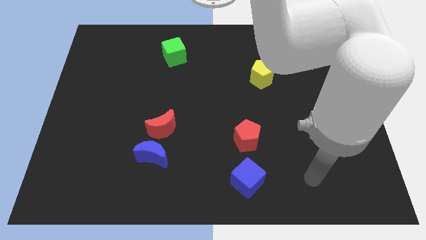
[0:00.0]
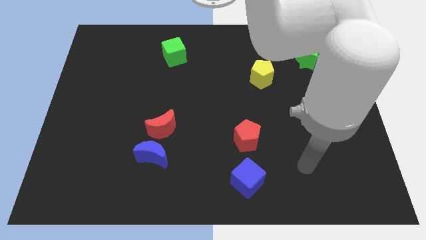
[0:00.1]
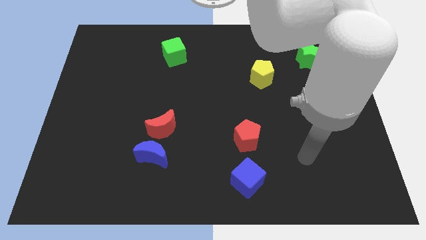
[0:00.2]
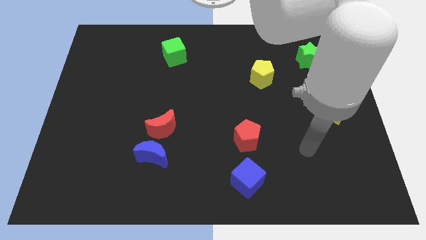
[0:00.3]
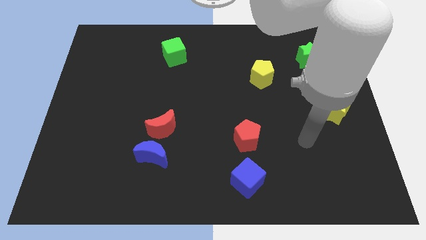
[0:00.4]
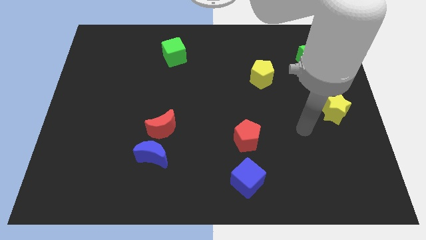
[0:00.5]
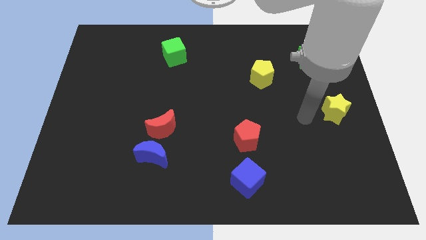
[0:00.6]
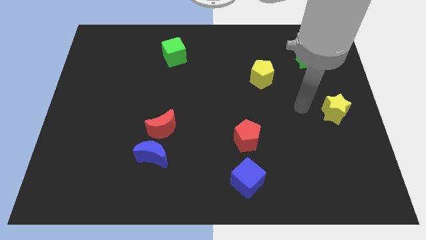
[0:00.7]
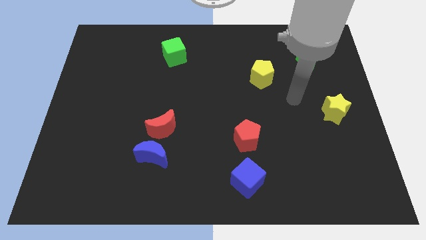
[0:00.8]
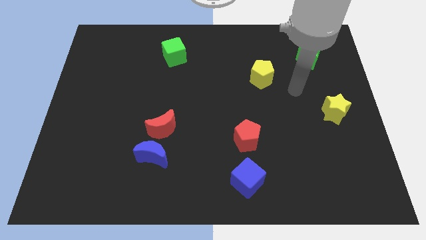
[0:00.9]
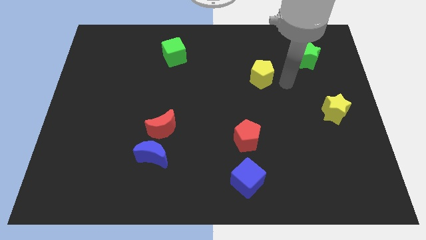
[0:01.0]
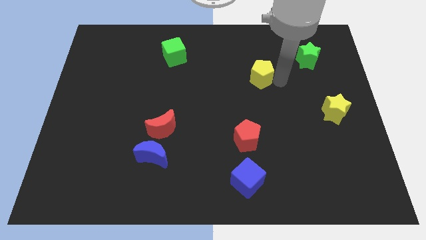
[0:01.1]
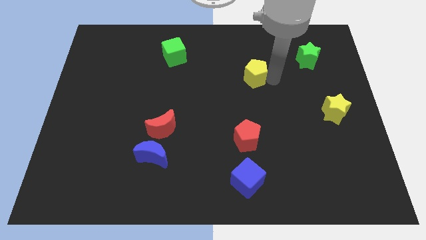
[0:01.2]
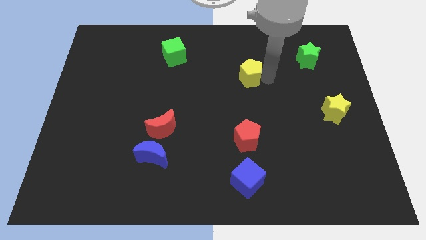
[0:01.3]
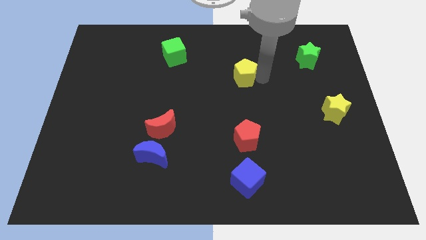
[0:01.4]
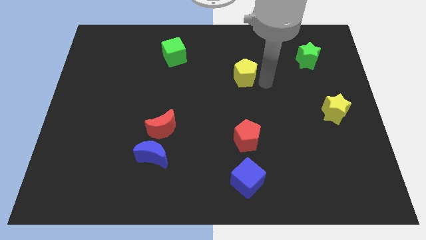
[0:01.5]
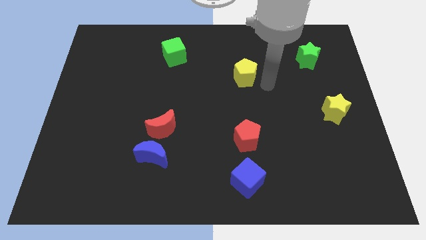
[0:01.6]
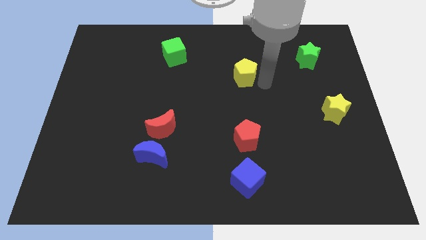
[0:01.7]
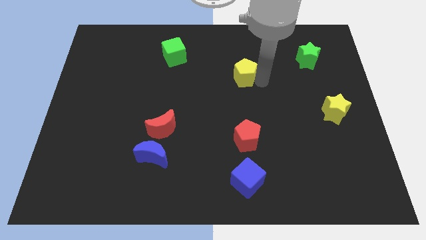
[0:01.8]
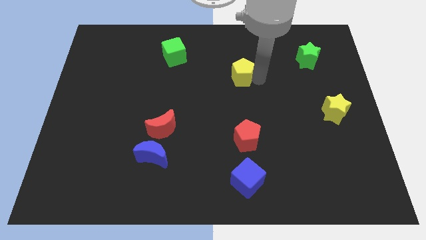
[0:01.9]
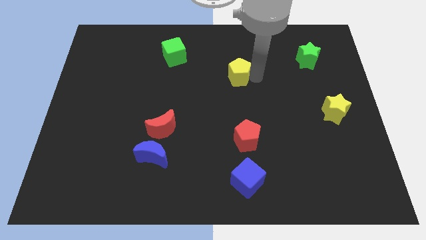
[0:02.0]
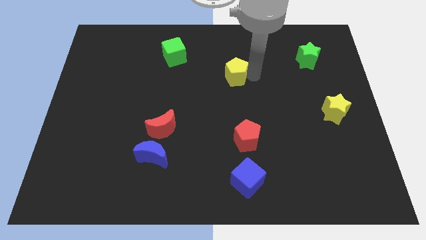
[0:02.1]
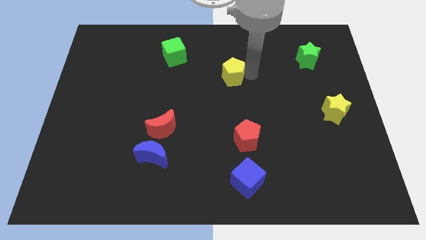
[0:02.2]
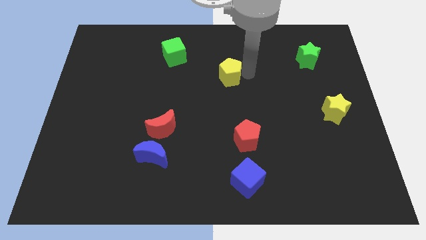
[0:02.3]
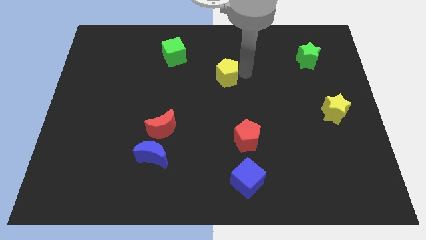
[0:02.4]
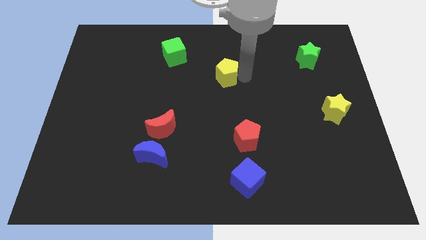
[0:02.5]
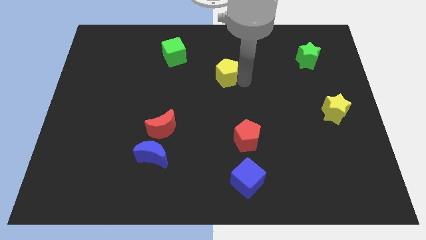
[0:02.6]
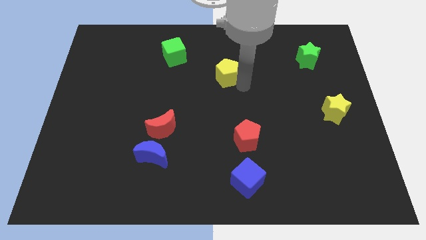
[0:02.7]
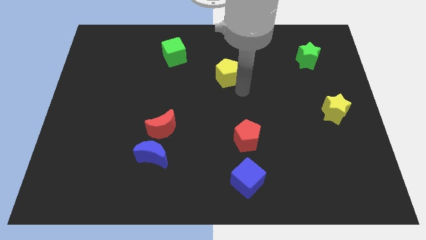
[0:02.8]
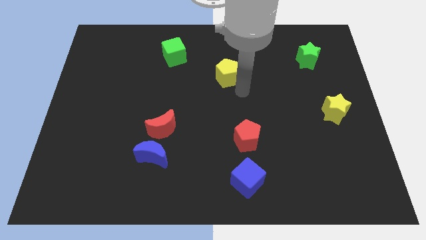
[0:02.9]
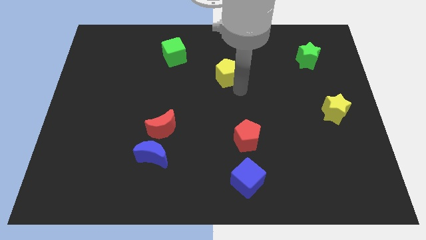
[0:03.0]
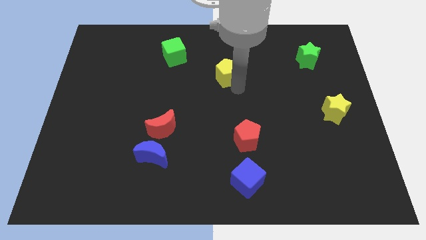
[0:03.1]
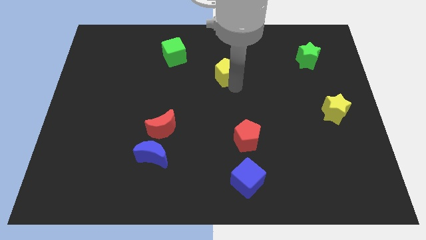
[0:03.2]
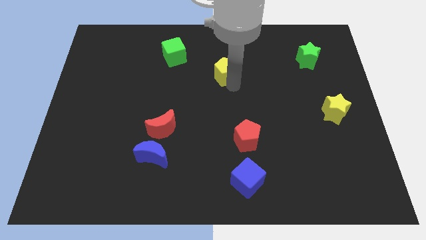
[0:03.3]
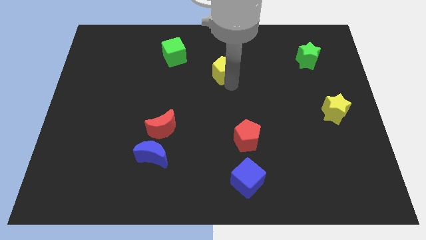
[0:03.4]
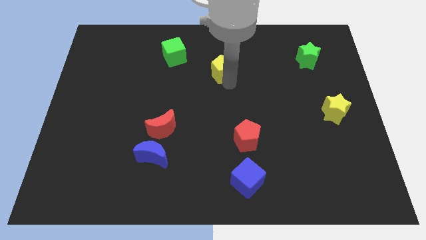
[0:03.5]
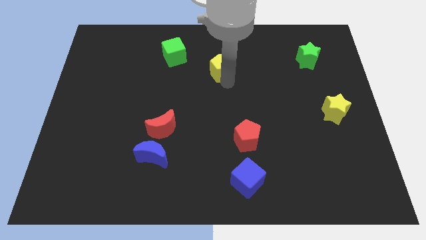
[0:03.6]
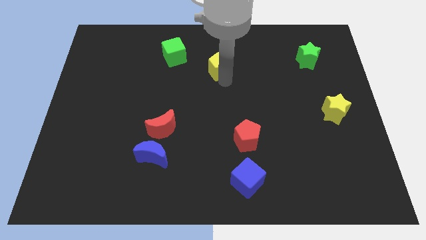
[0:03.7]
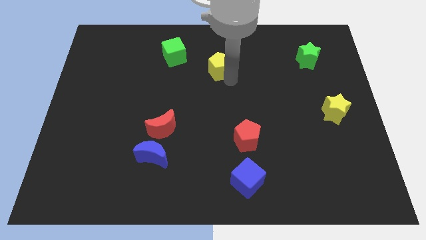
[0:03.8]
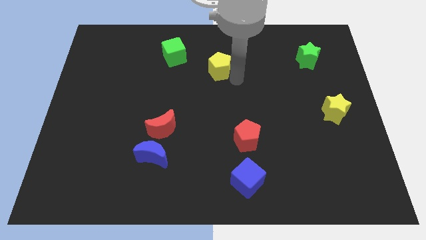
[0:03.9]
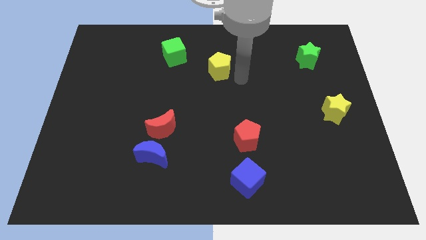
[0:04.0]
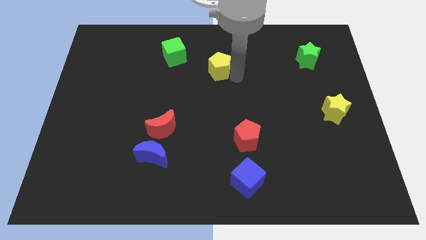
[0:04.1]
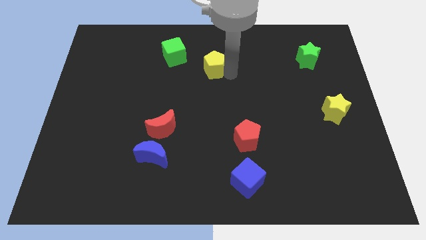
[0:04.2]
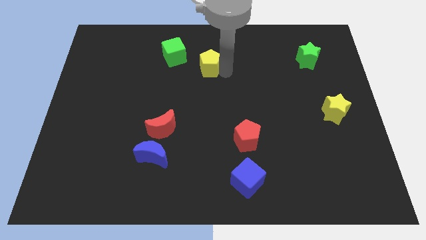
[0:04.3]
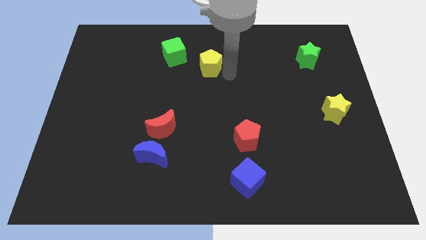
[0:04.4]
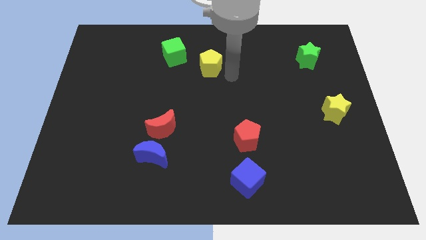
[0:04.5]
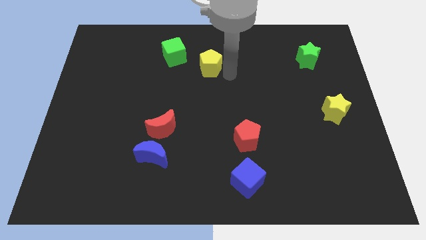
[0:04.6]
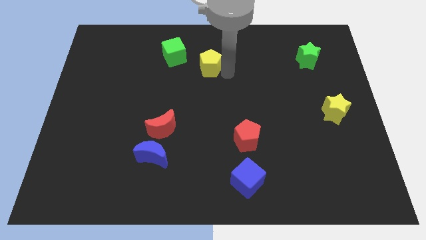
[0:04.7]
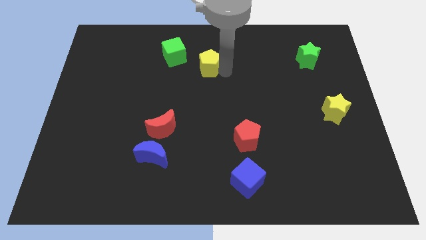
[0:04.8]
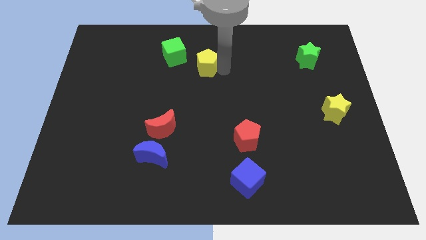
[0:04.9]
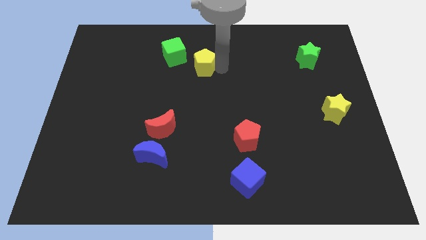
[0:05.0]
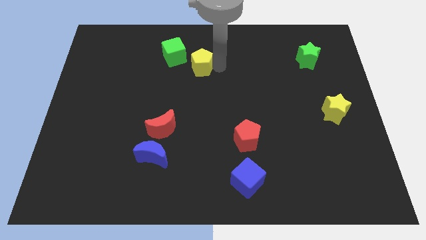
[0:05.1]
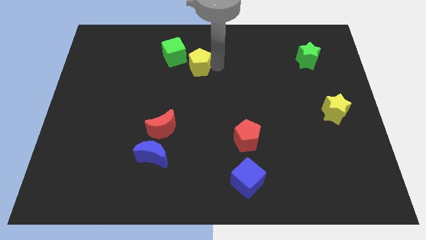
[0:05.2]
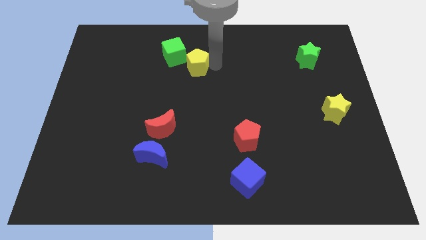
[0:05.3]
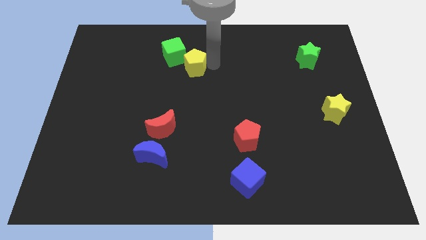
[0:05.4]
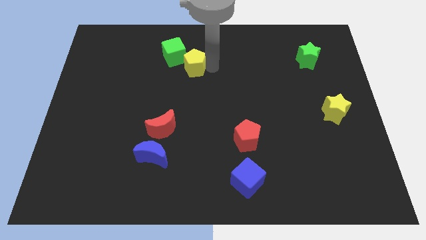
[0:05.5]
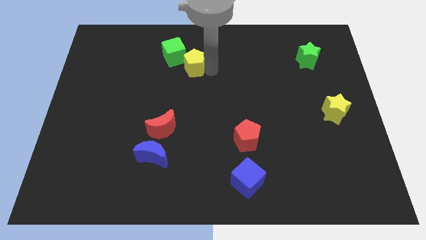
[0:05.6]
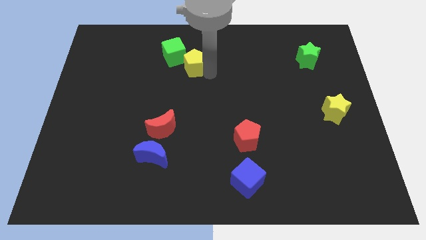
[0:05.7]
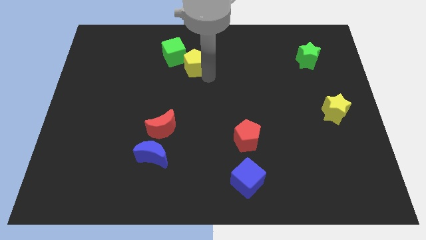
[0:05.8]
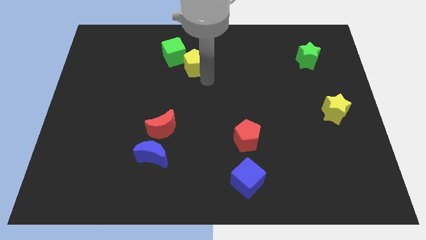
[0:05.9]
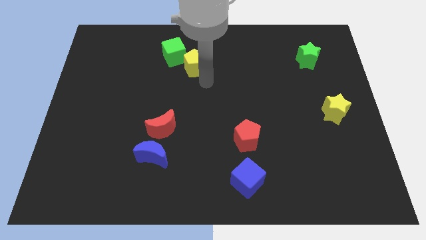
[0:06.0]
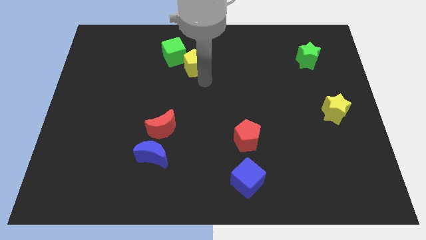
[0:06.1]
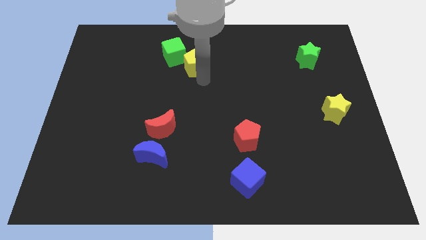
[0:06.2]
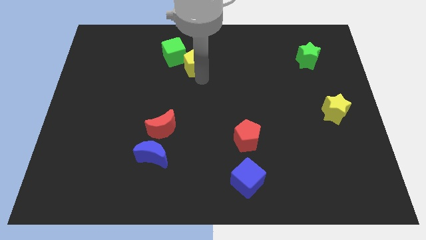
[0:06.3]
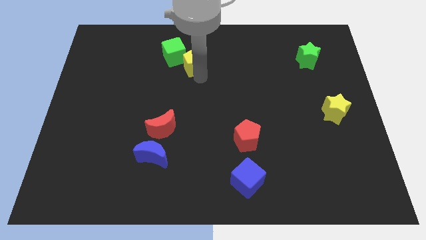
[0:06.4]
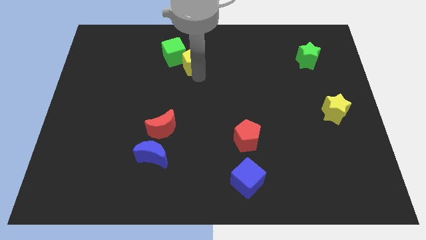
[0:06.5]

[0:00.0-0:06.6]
push the yellow pentagon close to the green cube

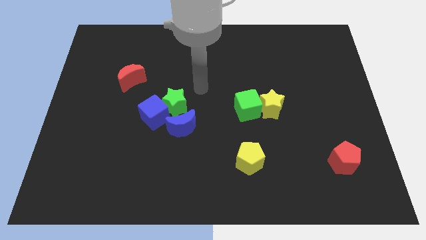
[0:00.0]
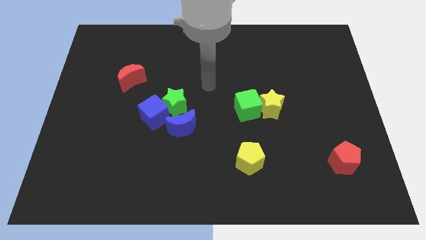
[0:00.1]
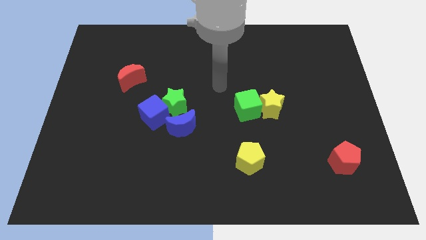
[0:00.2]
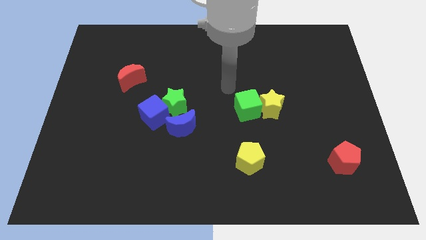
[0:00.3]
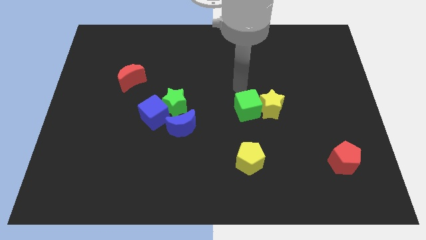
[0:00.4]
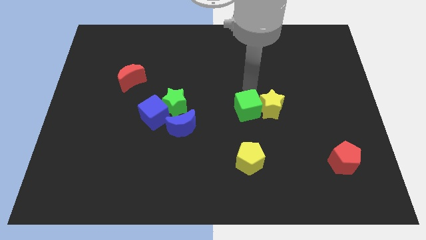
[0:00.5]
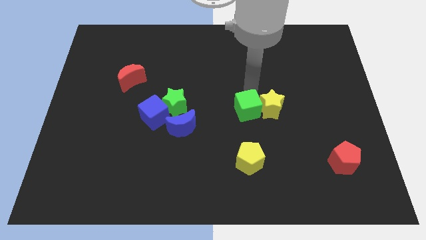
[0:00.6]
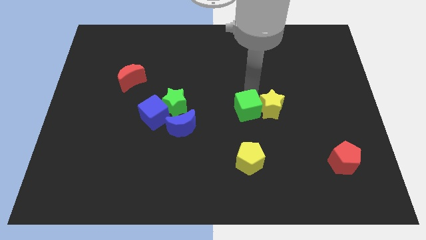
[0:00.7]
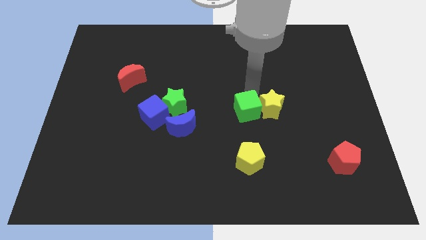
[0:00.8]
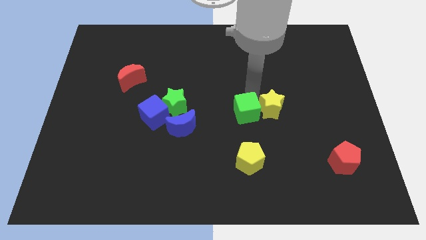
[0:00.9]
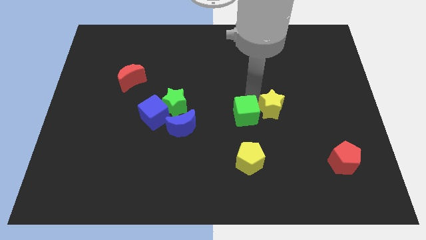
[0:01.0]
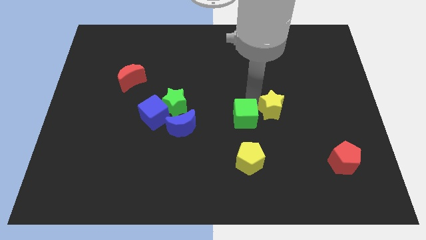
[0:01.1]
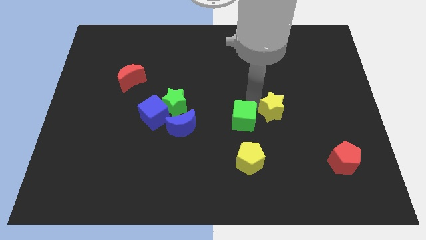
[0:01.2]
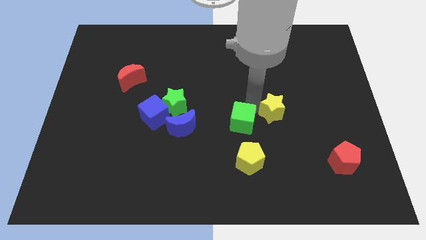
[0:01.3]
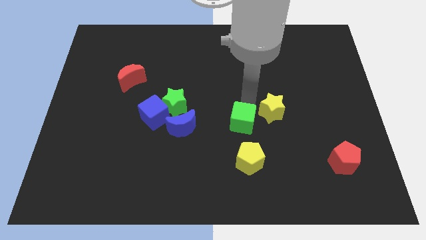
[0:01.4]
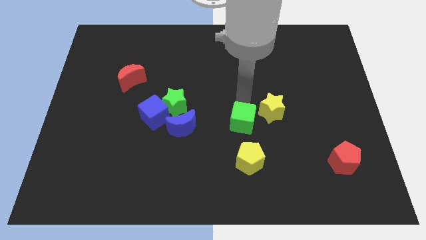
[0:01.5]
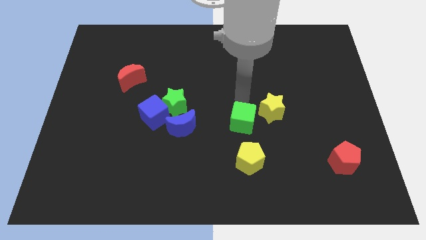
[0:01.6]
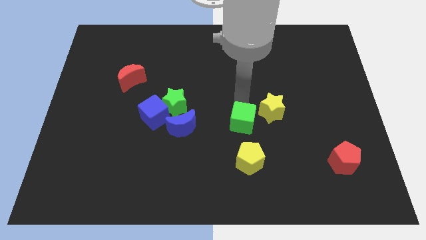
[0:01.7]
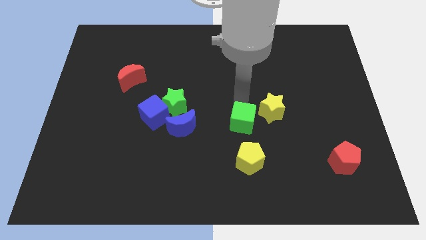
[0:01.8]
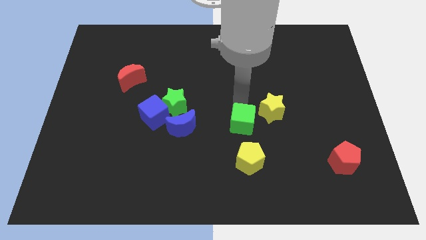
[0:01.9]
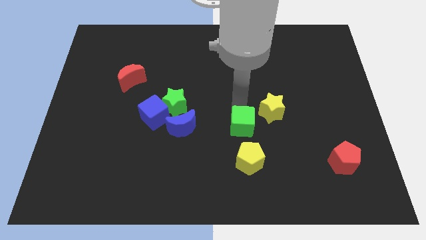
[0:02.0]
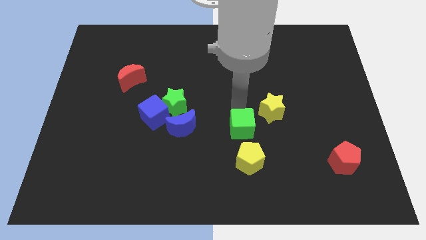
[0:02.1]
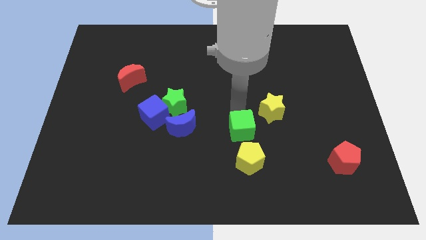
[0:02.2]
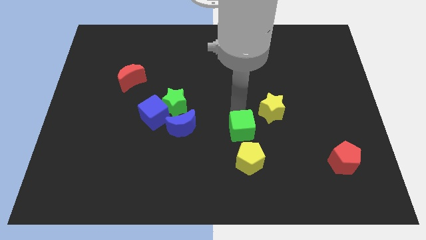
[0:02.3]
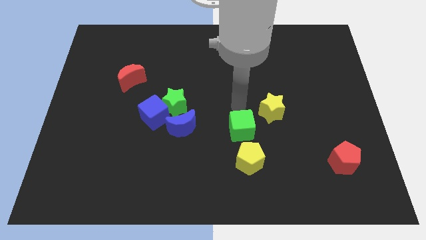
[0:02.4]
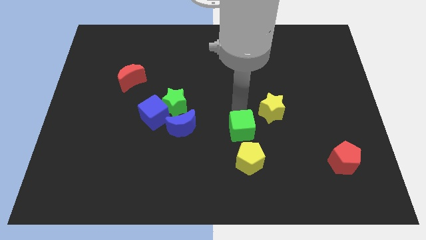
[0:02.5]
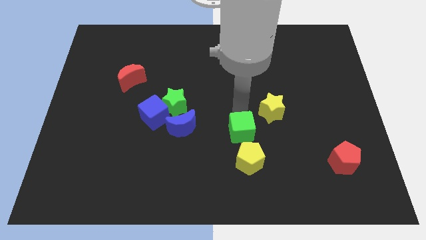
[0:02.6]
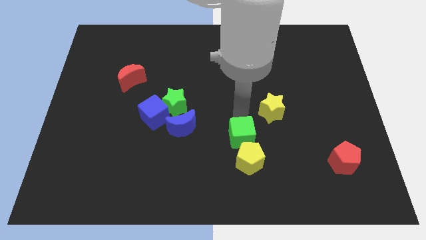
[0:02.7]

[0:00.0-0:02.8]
move the green cube close to the yellow pentagon
